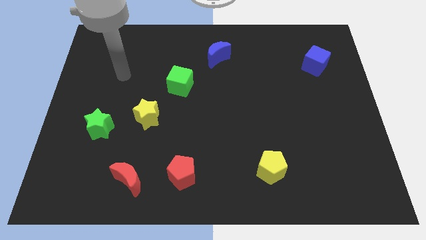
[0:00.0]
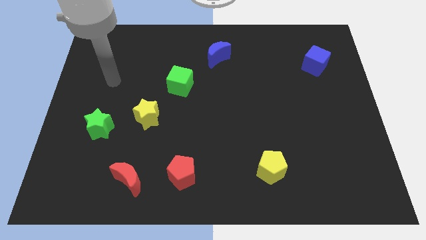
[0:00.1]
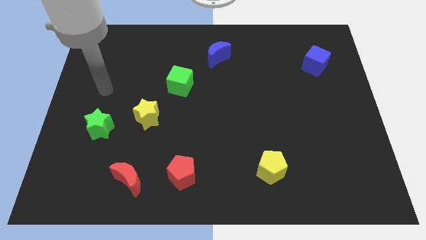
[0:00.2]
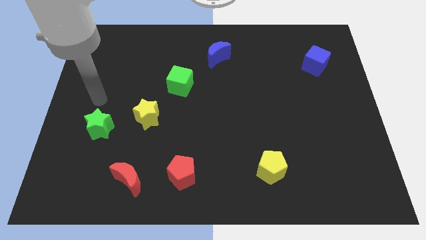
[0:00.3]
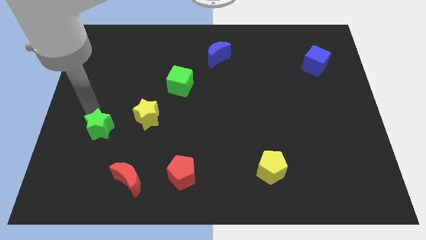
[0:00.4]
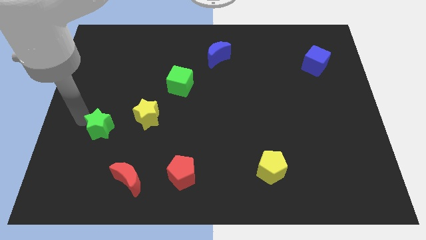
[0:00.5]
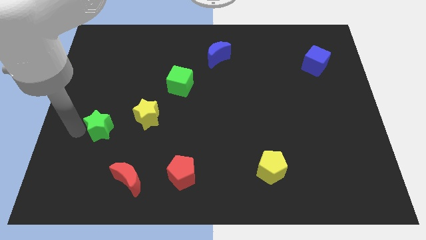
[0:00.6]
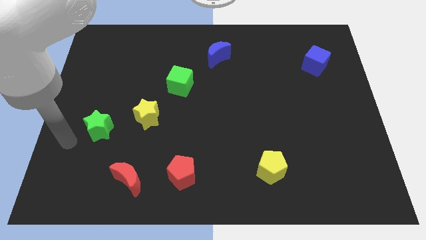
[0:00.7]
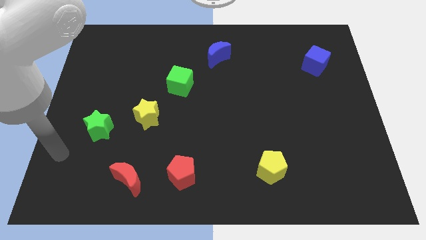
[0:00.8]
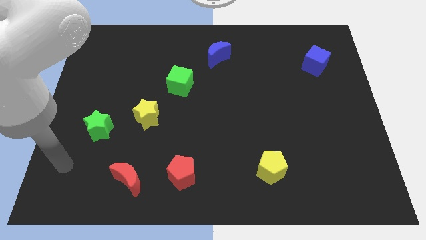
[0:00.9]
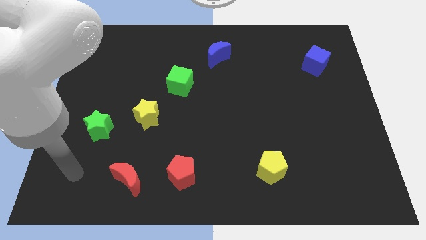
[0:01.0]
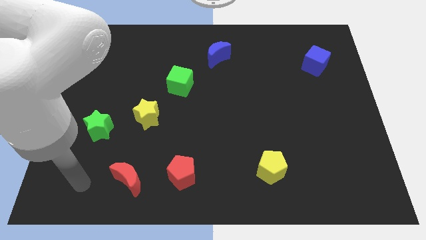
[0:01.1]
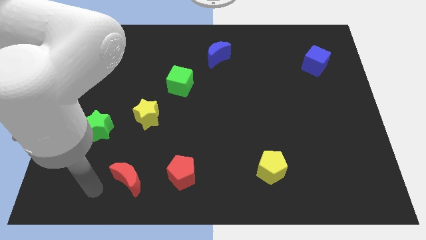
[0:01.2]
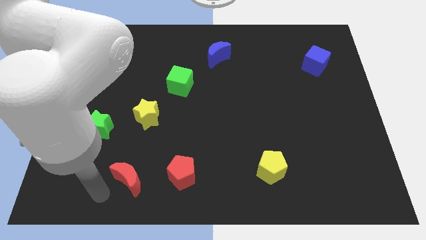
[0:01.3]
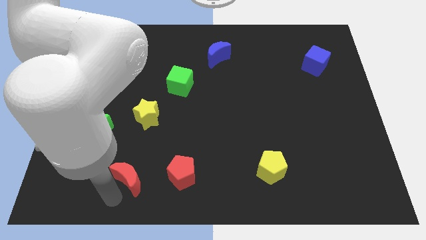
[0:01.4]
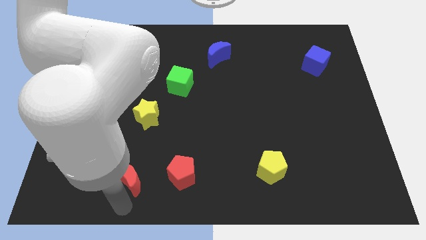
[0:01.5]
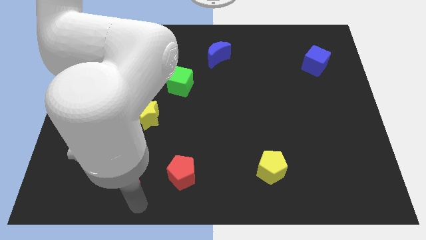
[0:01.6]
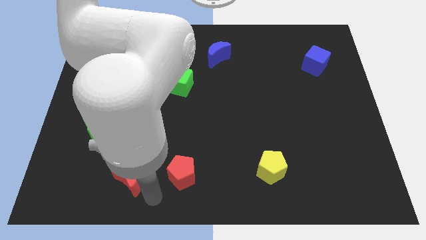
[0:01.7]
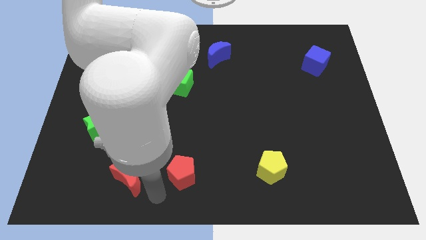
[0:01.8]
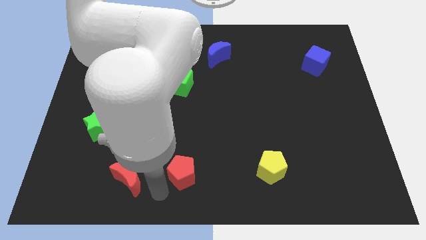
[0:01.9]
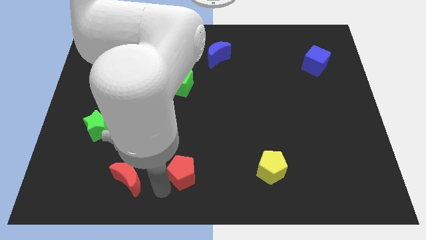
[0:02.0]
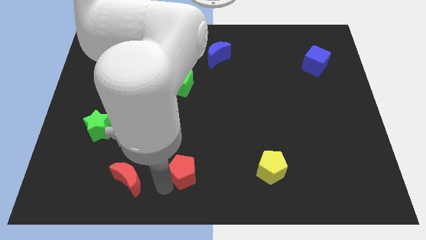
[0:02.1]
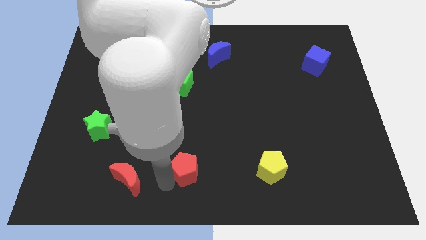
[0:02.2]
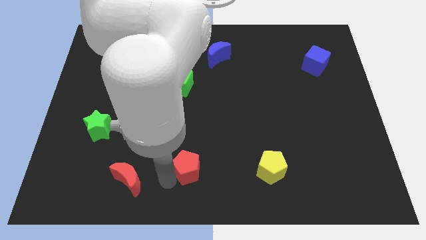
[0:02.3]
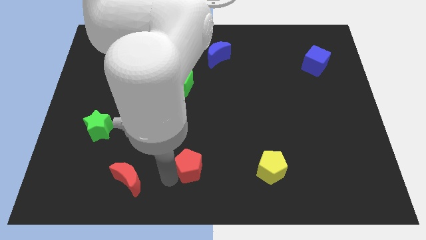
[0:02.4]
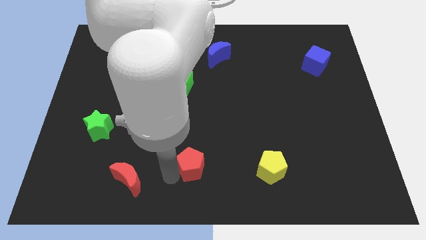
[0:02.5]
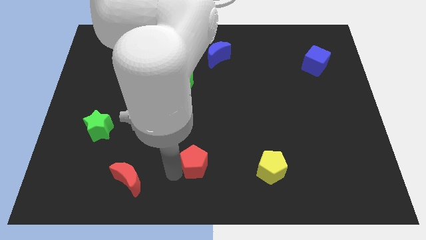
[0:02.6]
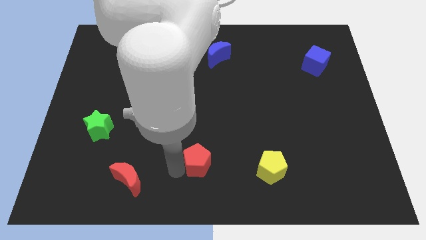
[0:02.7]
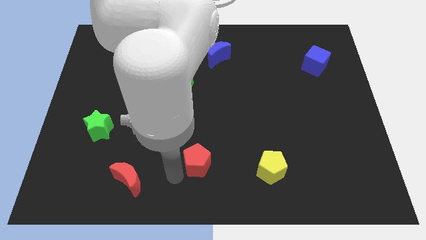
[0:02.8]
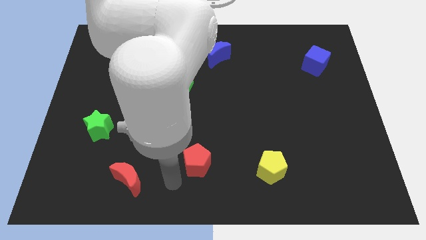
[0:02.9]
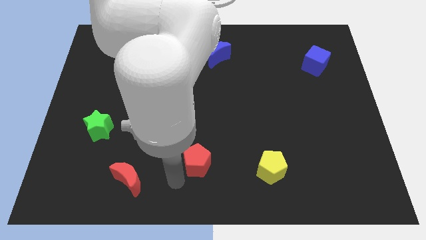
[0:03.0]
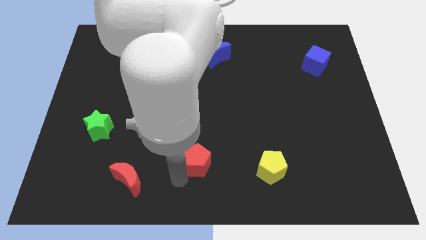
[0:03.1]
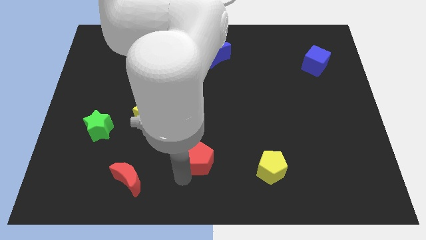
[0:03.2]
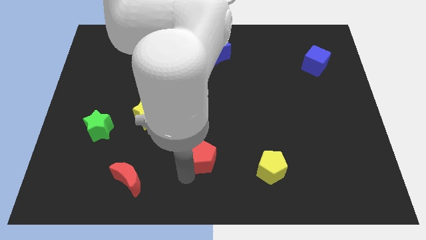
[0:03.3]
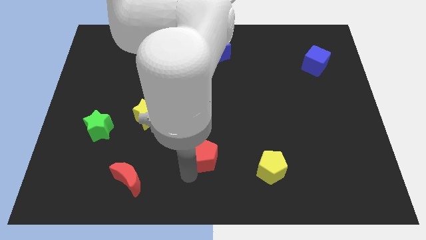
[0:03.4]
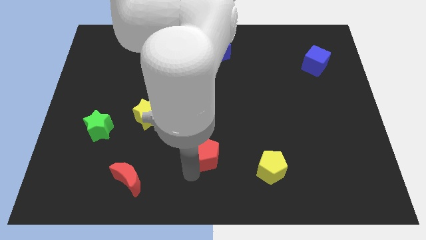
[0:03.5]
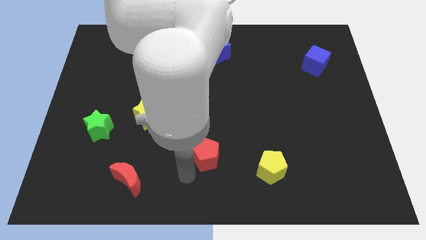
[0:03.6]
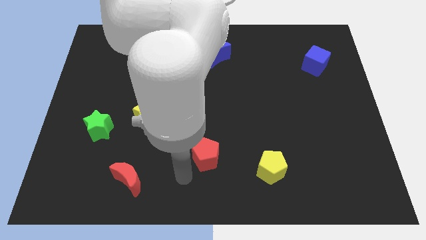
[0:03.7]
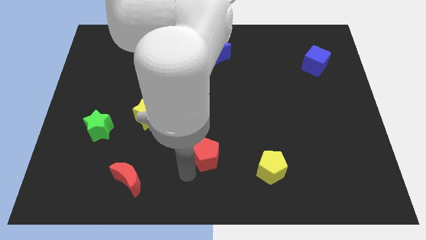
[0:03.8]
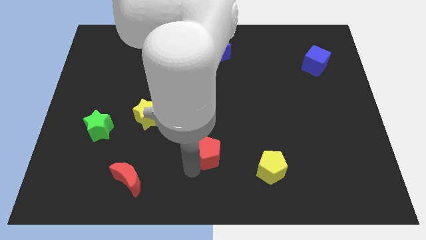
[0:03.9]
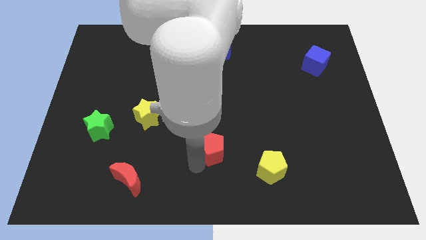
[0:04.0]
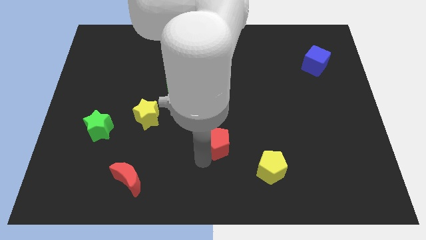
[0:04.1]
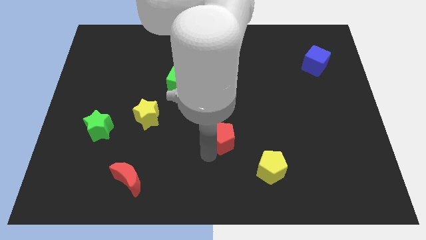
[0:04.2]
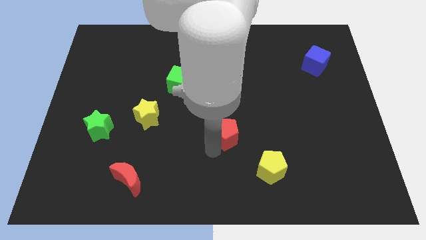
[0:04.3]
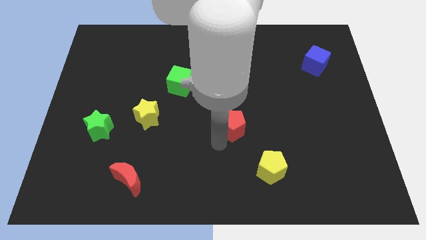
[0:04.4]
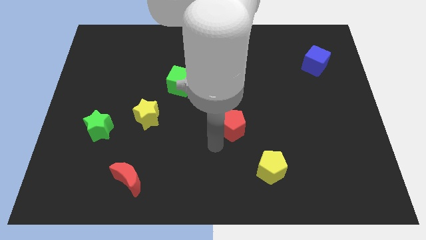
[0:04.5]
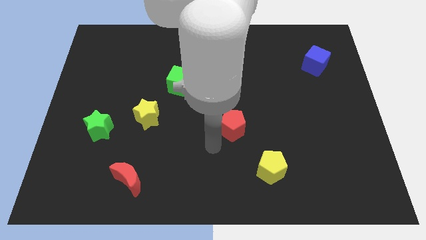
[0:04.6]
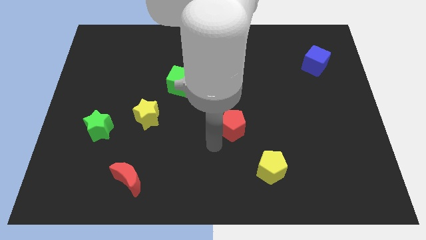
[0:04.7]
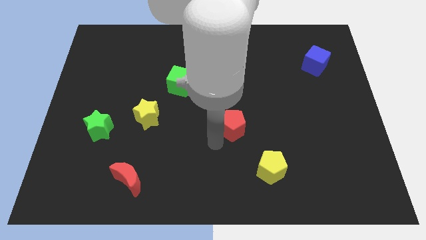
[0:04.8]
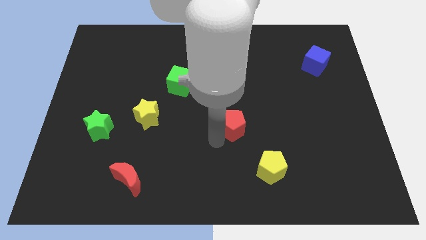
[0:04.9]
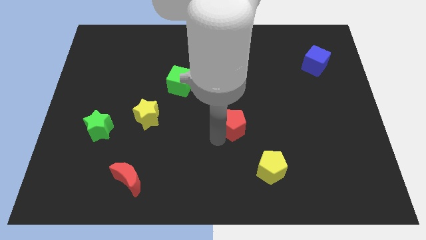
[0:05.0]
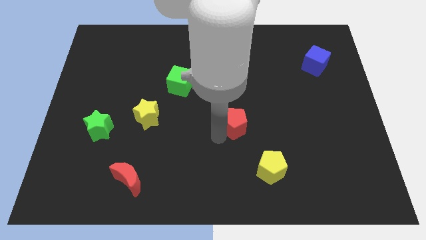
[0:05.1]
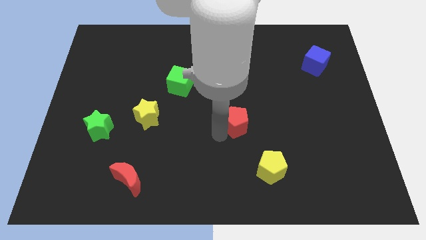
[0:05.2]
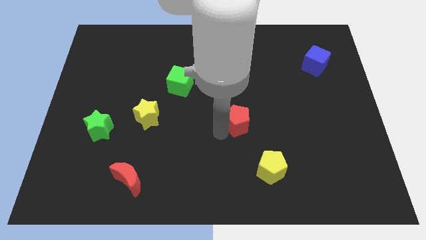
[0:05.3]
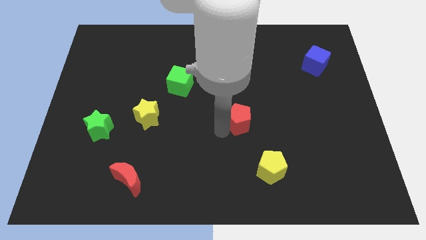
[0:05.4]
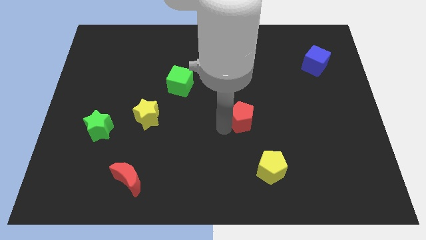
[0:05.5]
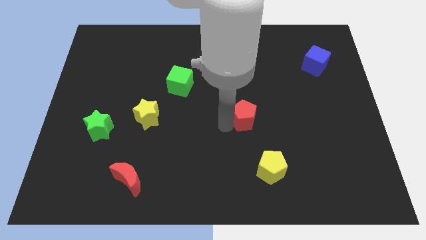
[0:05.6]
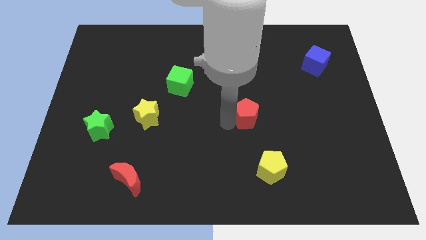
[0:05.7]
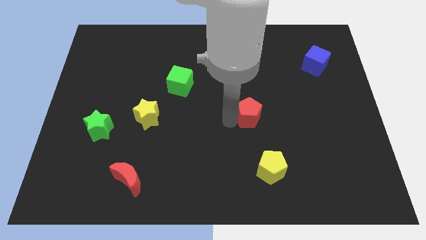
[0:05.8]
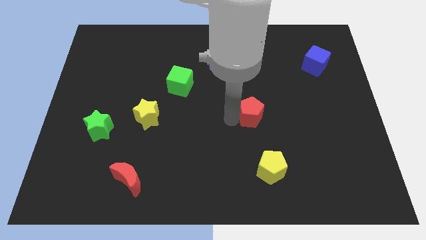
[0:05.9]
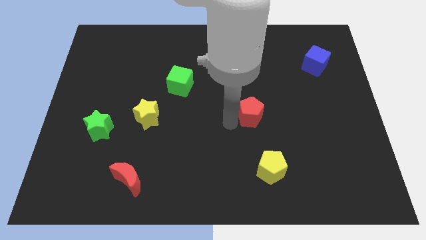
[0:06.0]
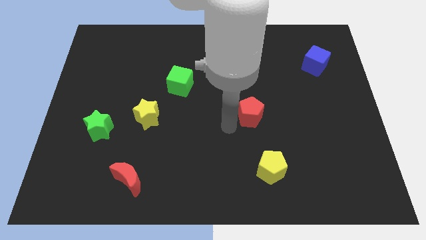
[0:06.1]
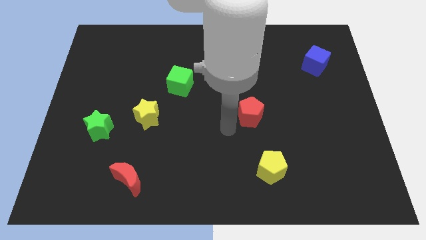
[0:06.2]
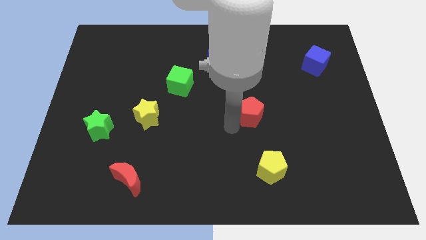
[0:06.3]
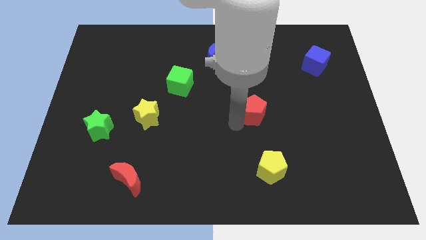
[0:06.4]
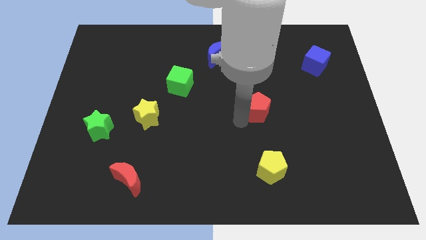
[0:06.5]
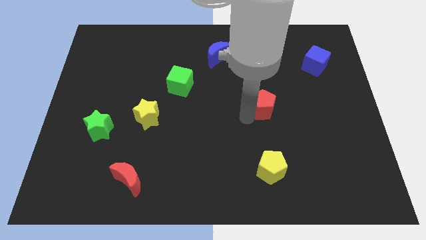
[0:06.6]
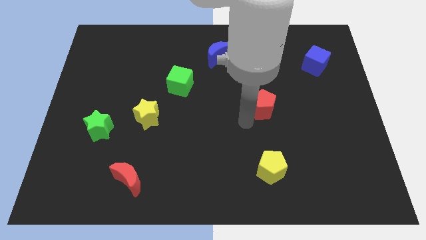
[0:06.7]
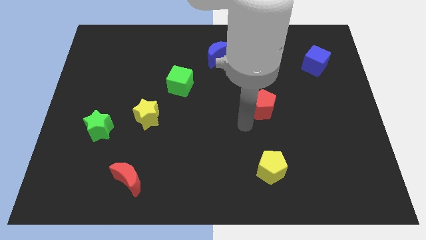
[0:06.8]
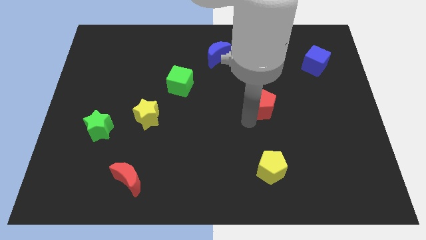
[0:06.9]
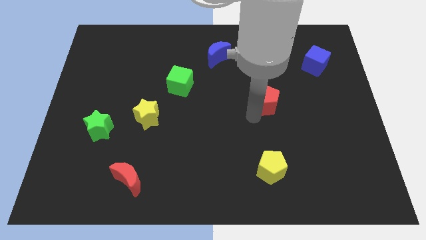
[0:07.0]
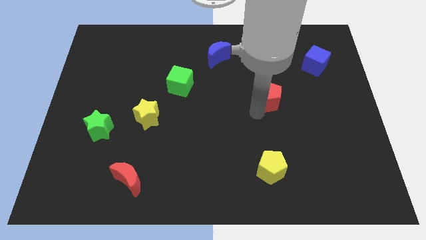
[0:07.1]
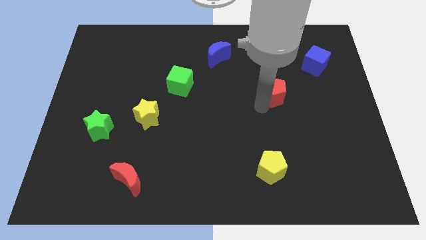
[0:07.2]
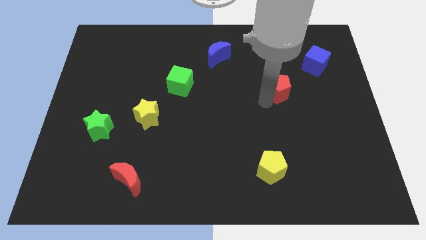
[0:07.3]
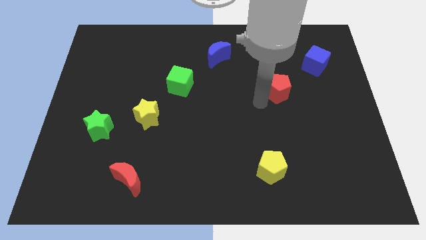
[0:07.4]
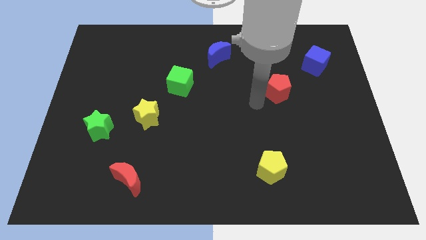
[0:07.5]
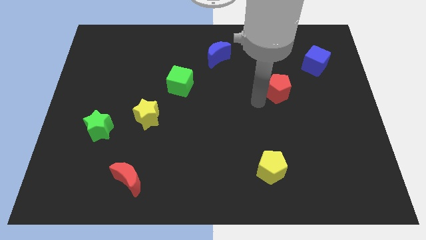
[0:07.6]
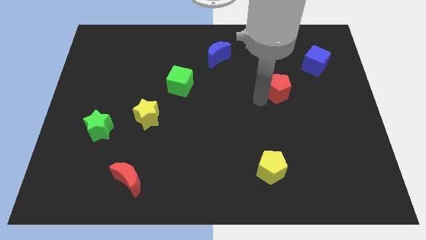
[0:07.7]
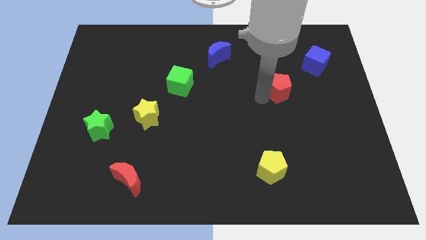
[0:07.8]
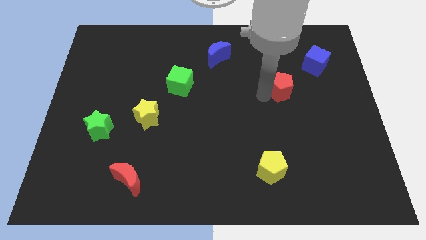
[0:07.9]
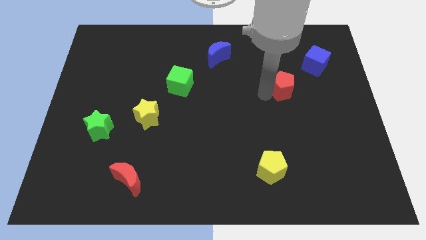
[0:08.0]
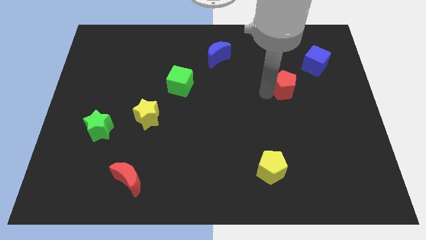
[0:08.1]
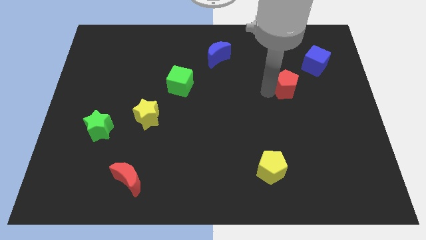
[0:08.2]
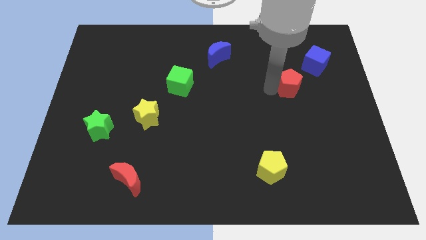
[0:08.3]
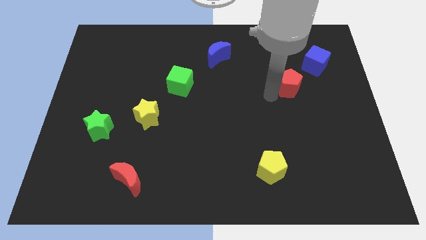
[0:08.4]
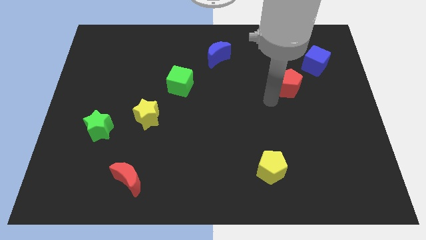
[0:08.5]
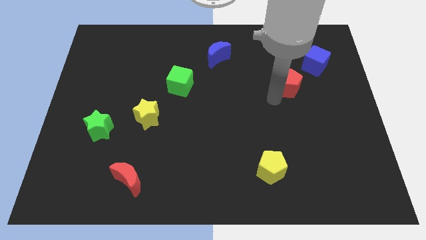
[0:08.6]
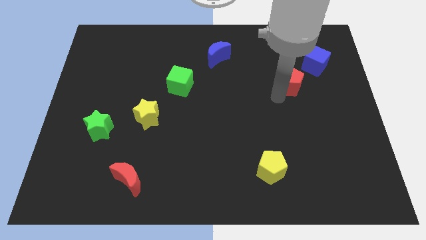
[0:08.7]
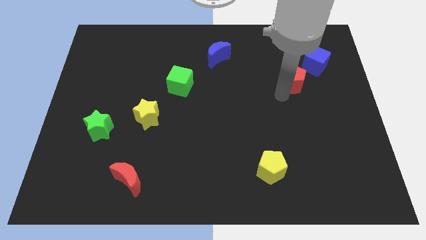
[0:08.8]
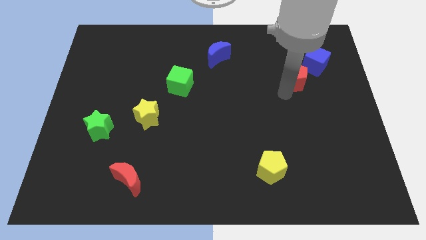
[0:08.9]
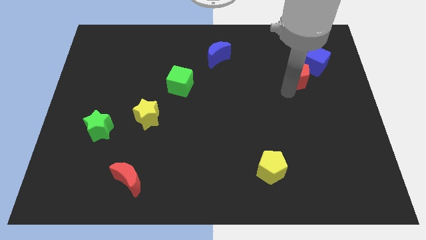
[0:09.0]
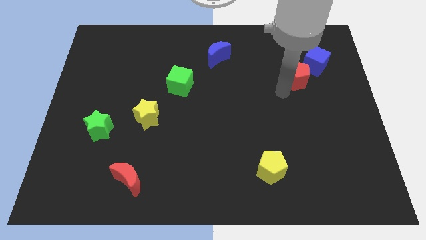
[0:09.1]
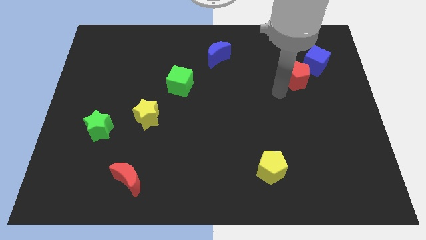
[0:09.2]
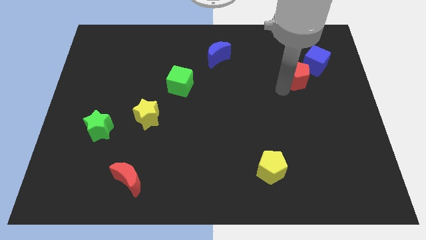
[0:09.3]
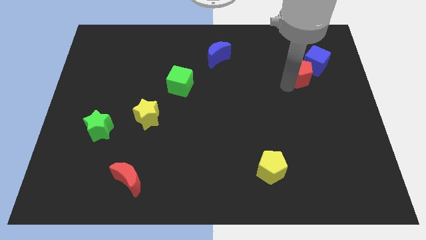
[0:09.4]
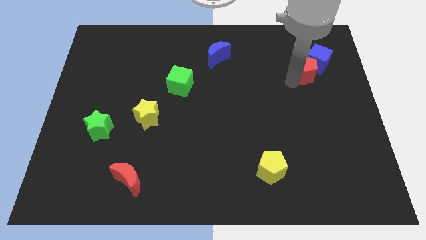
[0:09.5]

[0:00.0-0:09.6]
put the red pentagon close to the blue cube
